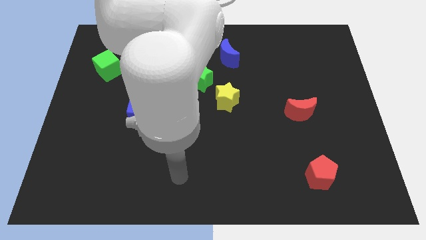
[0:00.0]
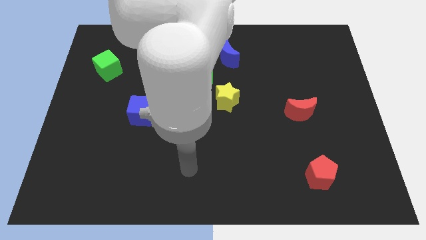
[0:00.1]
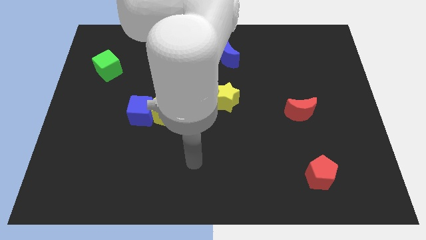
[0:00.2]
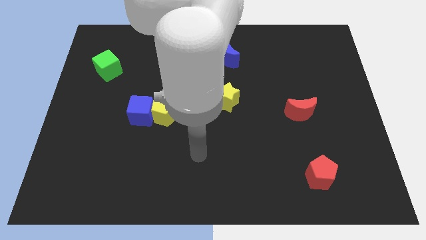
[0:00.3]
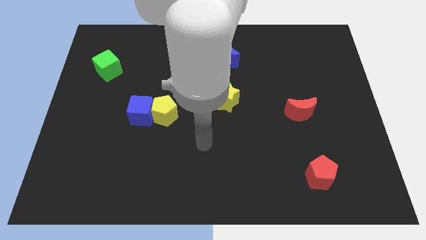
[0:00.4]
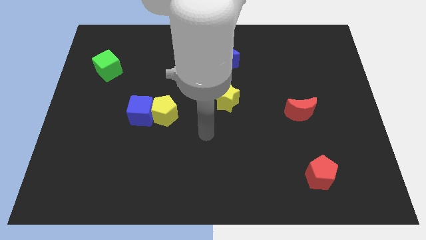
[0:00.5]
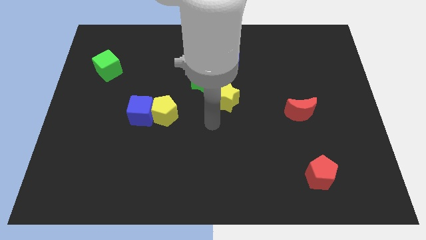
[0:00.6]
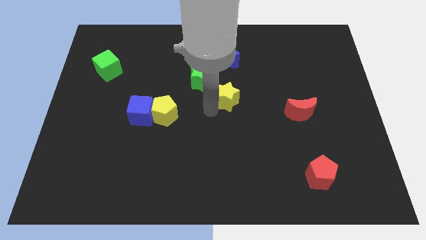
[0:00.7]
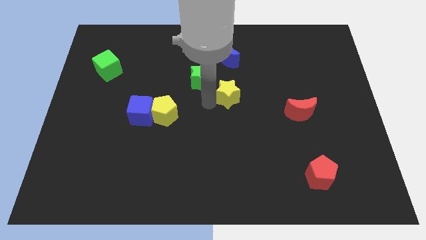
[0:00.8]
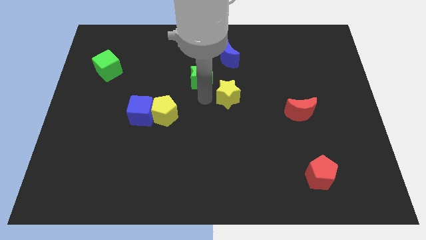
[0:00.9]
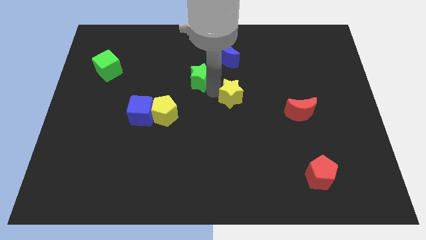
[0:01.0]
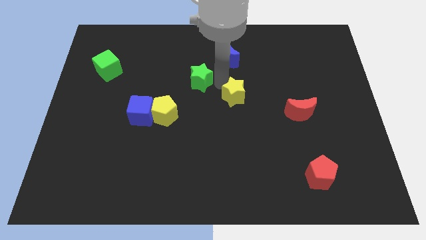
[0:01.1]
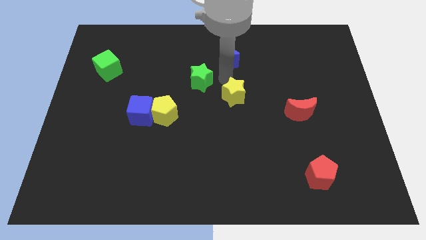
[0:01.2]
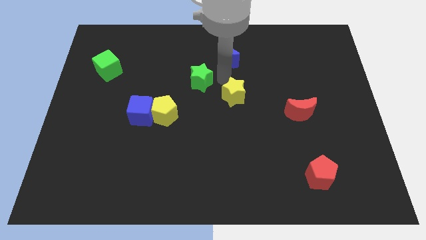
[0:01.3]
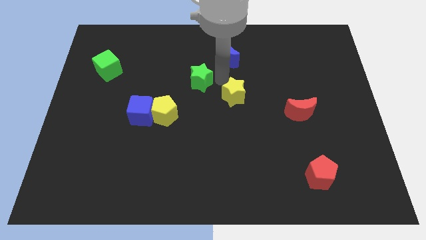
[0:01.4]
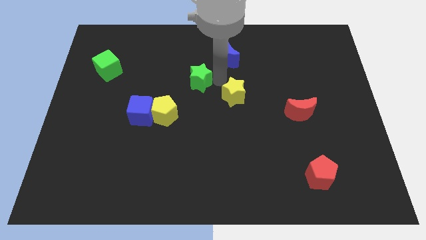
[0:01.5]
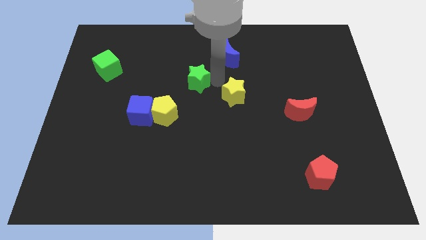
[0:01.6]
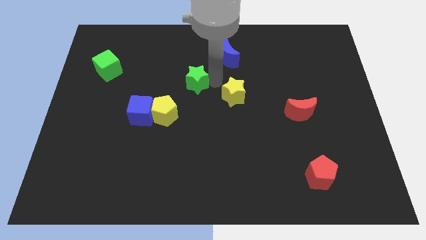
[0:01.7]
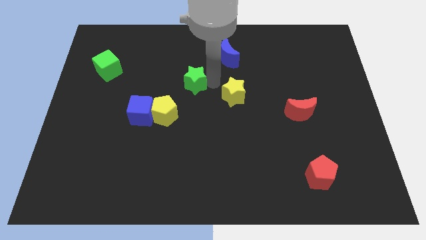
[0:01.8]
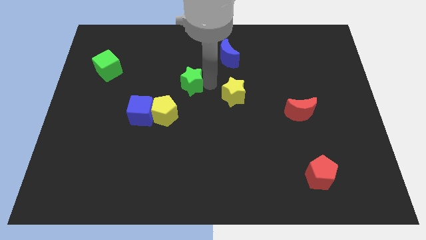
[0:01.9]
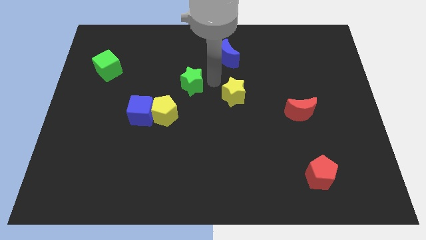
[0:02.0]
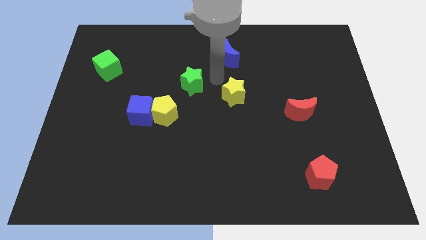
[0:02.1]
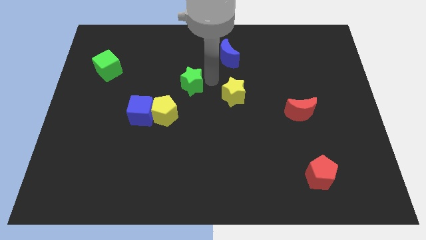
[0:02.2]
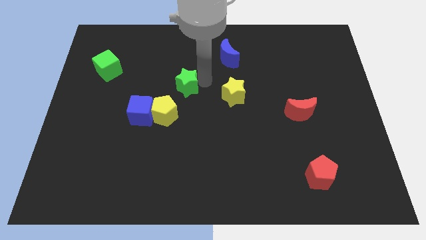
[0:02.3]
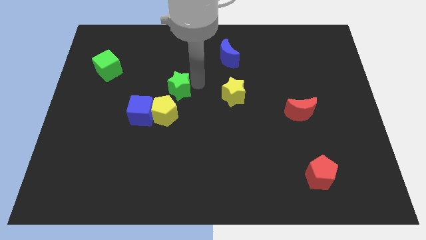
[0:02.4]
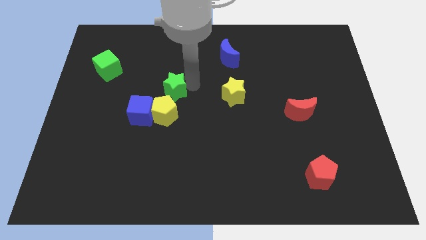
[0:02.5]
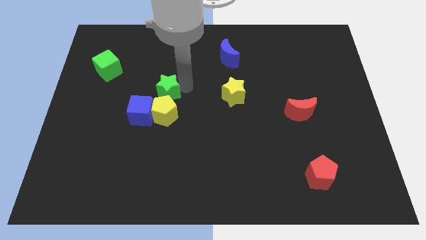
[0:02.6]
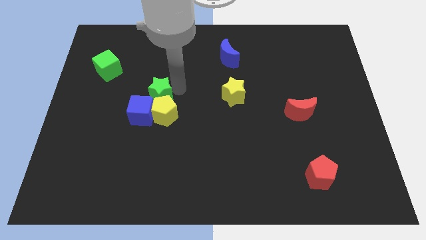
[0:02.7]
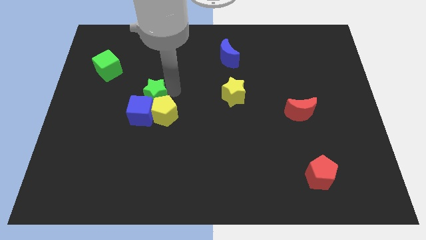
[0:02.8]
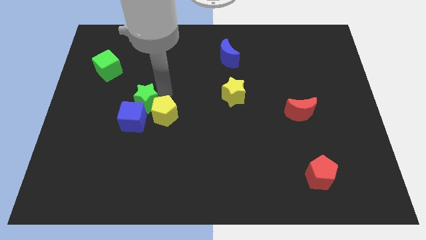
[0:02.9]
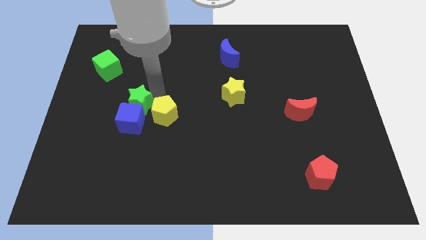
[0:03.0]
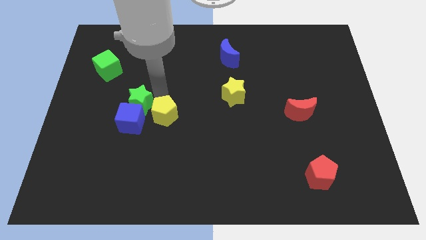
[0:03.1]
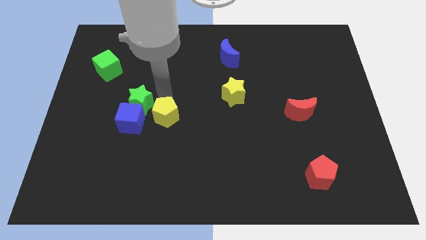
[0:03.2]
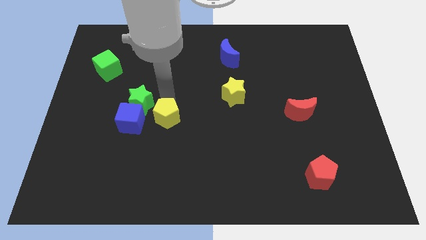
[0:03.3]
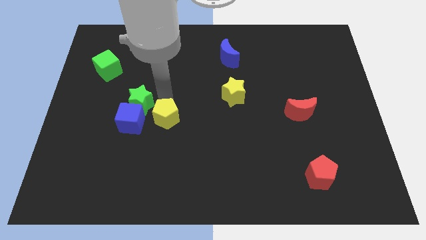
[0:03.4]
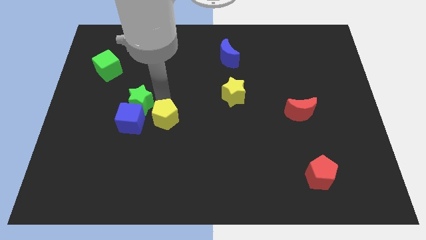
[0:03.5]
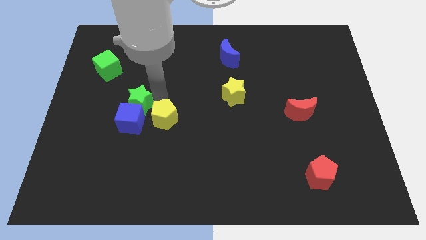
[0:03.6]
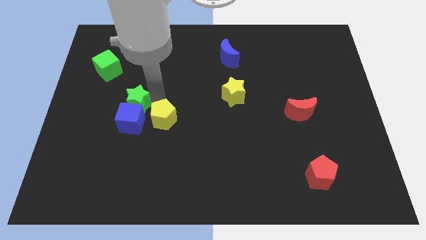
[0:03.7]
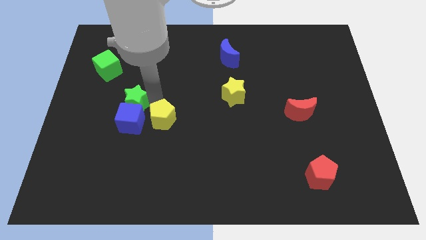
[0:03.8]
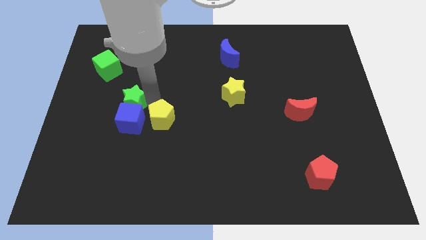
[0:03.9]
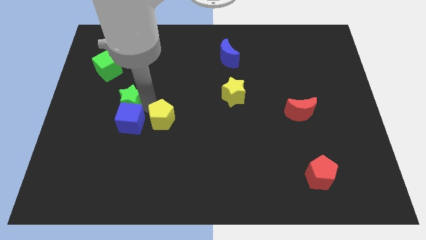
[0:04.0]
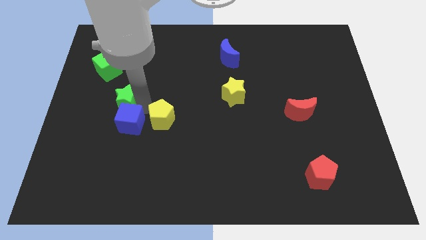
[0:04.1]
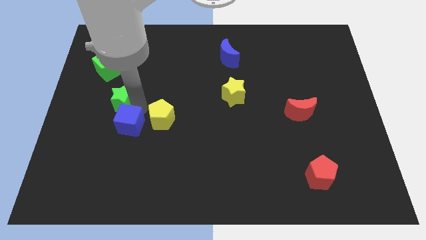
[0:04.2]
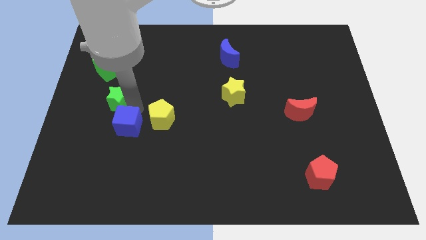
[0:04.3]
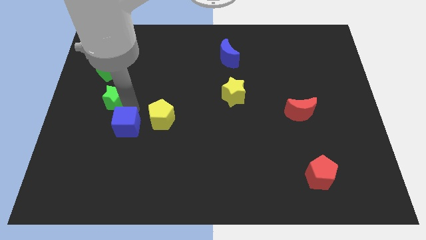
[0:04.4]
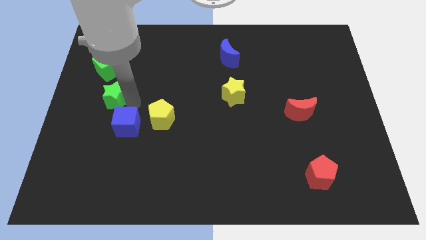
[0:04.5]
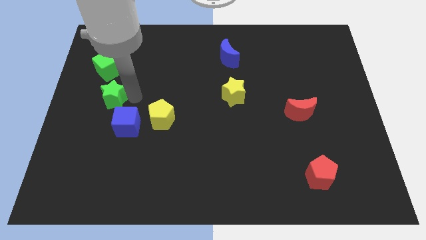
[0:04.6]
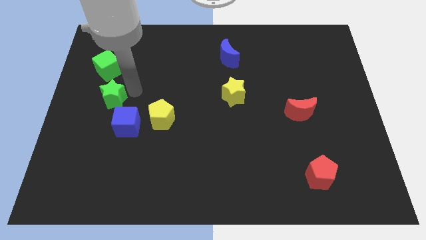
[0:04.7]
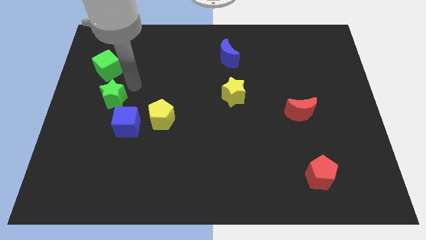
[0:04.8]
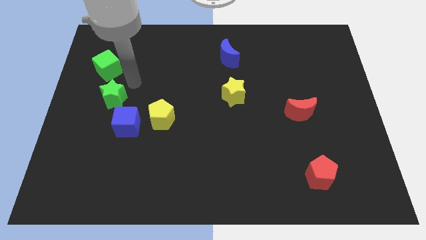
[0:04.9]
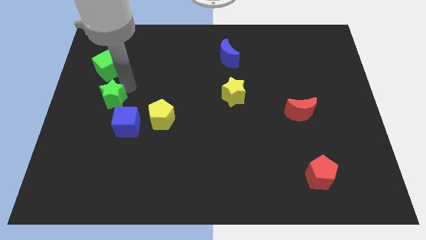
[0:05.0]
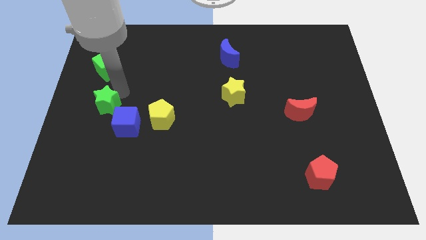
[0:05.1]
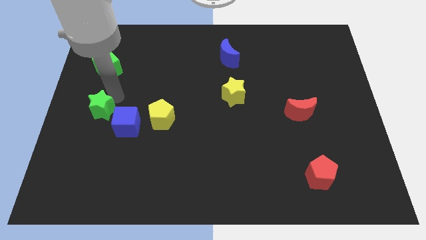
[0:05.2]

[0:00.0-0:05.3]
slide the green star to the left of the blue cube

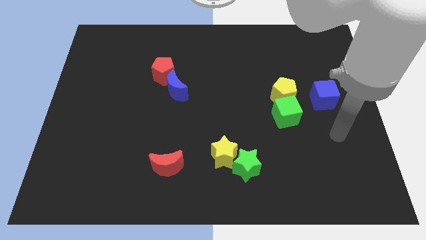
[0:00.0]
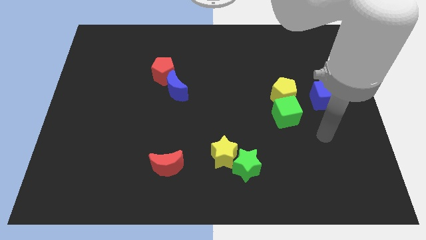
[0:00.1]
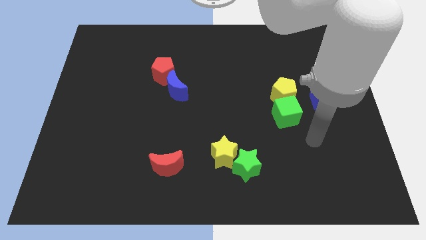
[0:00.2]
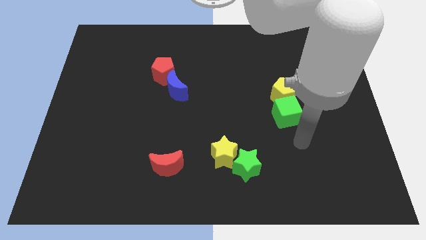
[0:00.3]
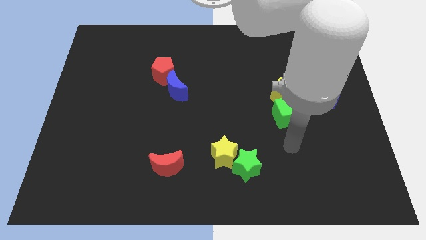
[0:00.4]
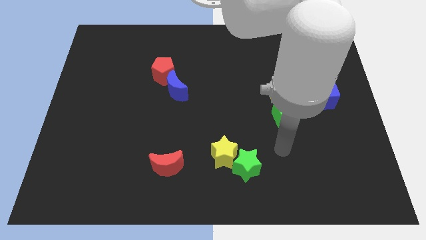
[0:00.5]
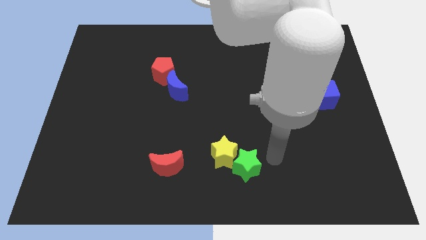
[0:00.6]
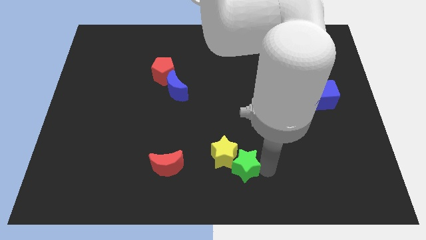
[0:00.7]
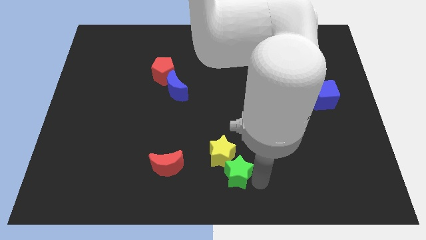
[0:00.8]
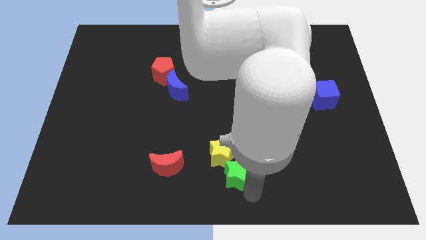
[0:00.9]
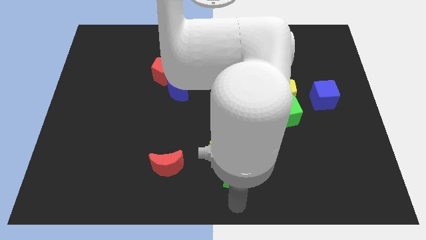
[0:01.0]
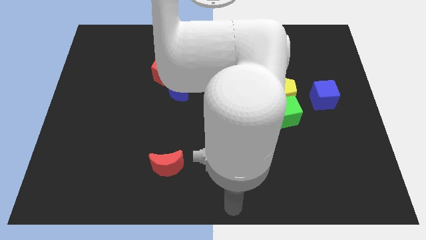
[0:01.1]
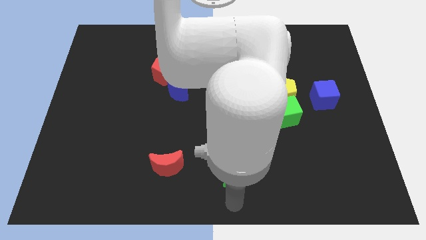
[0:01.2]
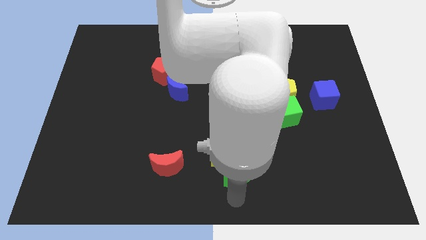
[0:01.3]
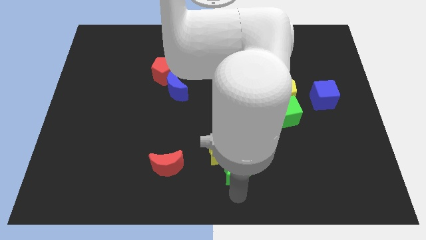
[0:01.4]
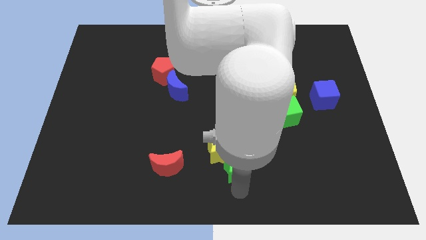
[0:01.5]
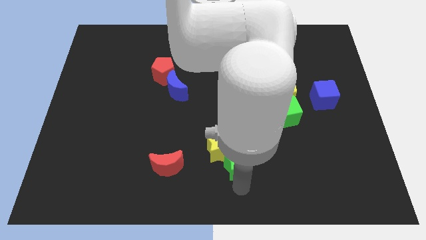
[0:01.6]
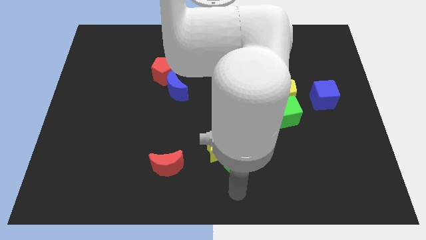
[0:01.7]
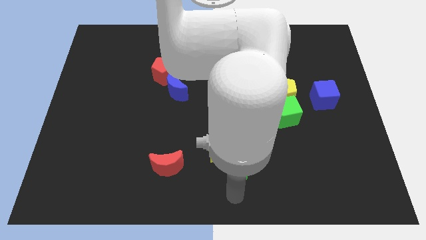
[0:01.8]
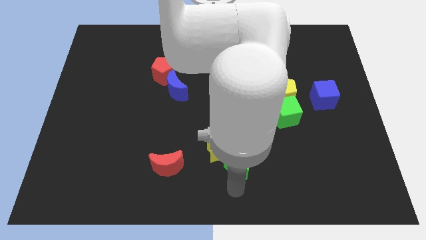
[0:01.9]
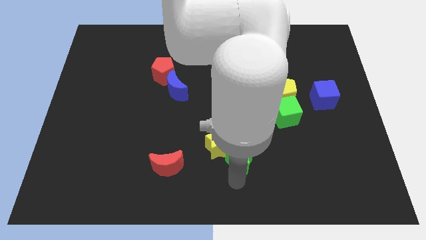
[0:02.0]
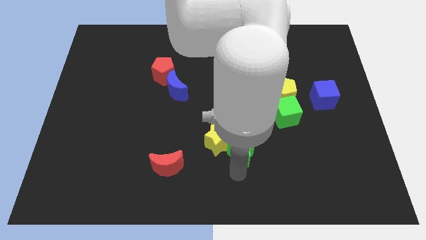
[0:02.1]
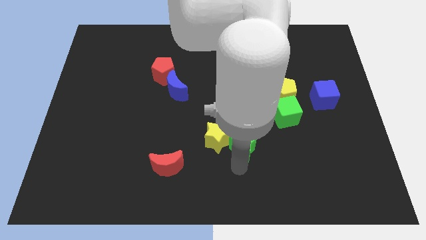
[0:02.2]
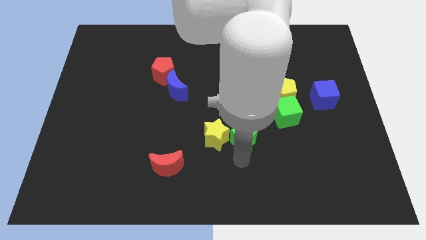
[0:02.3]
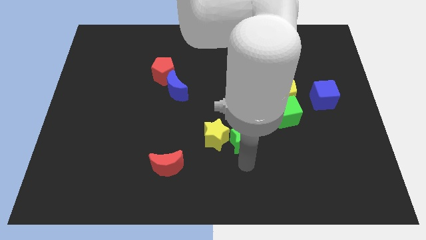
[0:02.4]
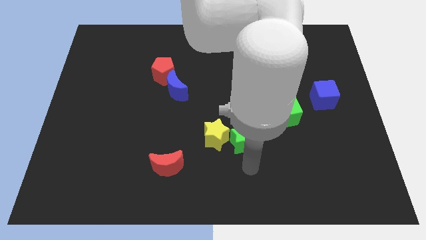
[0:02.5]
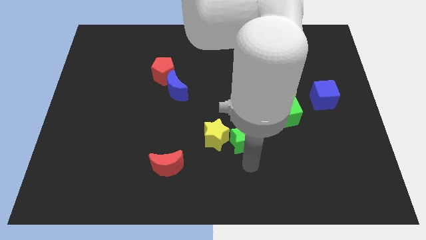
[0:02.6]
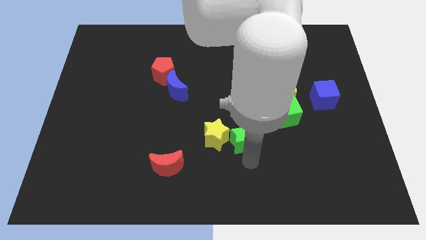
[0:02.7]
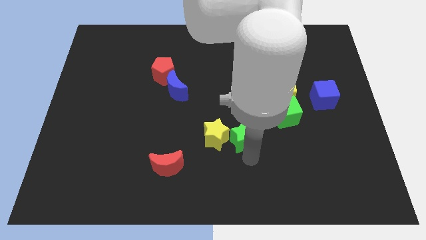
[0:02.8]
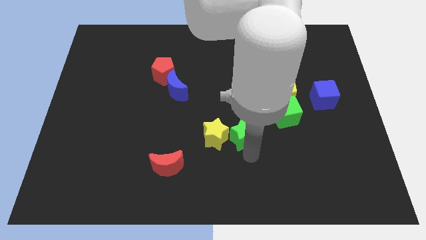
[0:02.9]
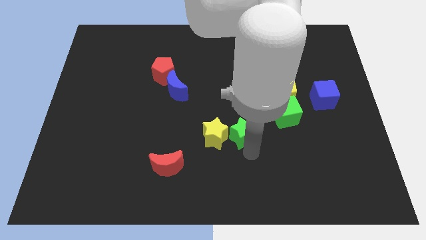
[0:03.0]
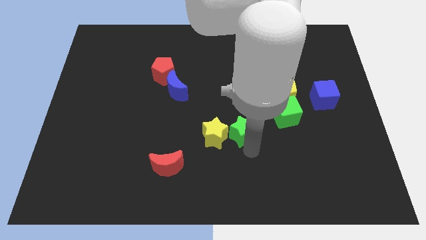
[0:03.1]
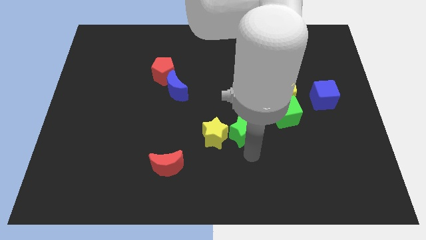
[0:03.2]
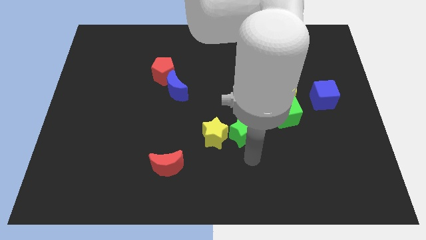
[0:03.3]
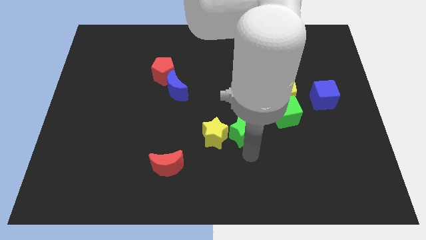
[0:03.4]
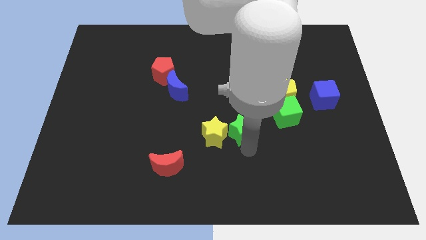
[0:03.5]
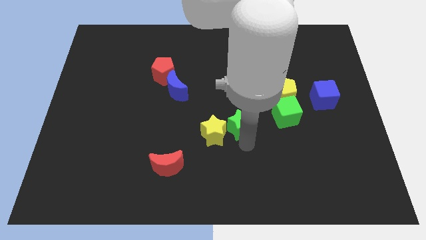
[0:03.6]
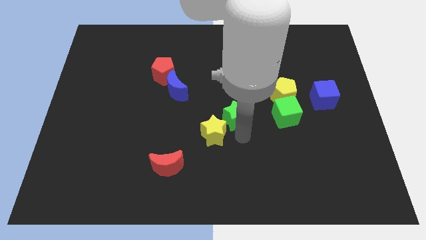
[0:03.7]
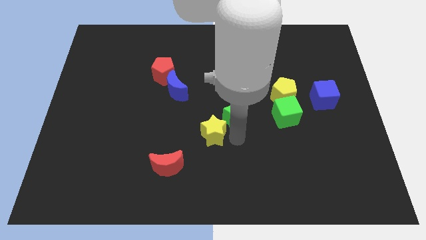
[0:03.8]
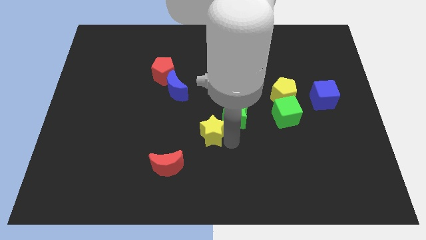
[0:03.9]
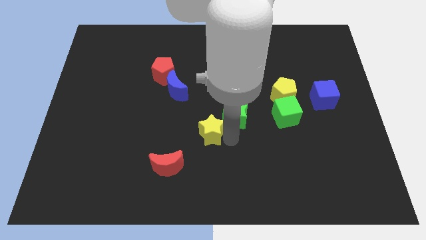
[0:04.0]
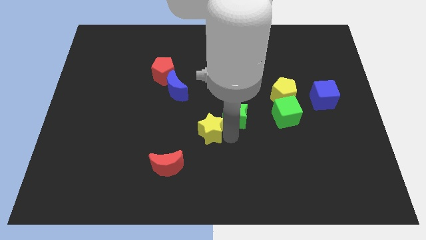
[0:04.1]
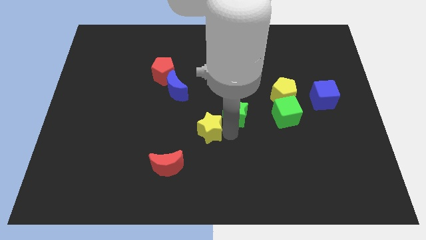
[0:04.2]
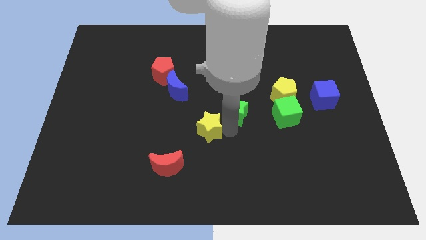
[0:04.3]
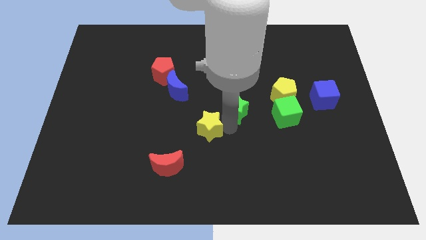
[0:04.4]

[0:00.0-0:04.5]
put the green star just left of the yellow pentagon
